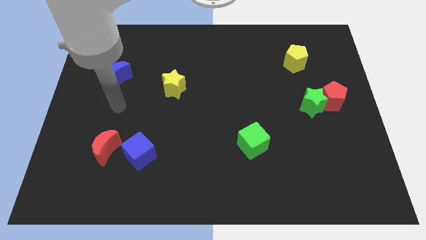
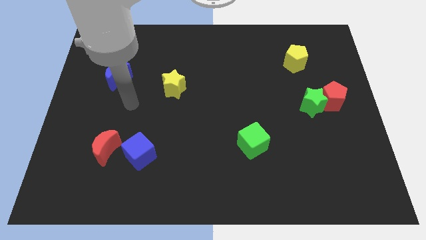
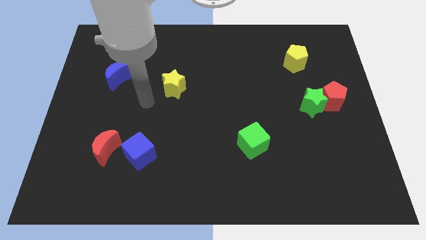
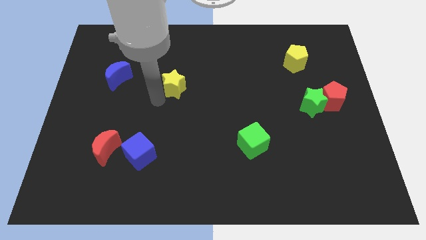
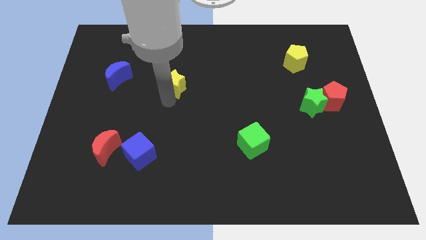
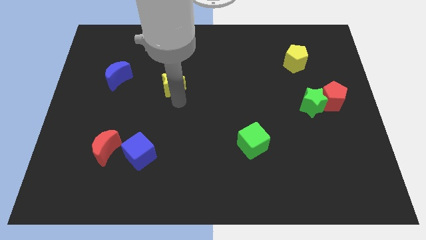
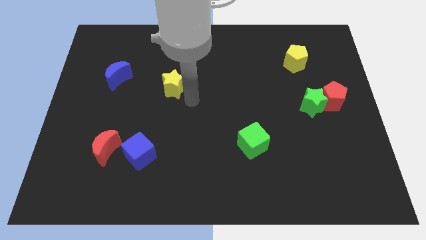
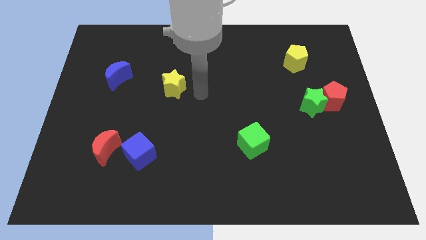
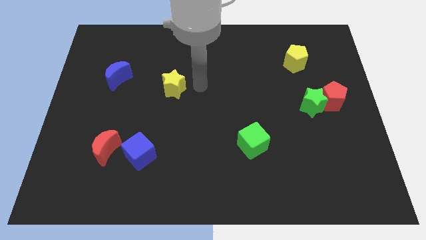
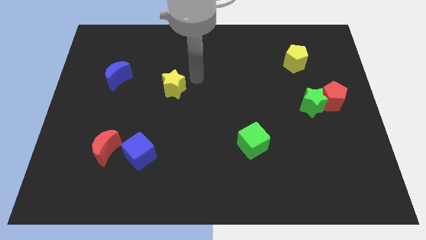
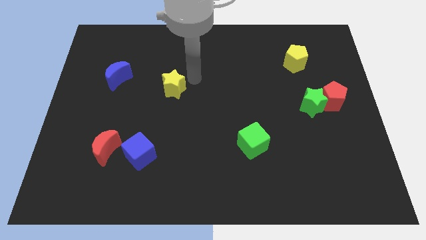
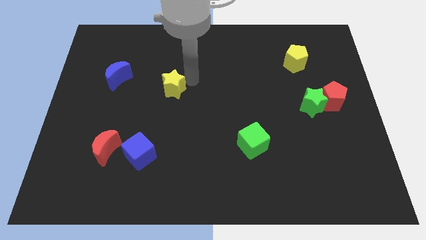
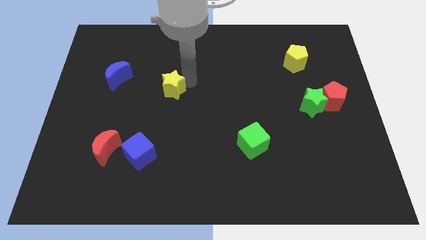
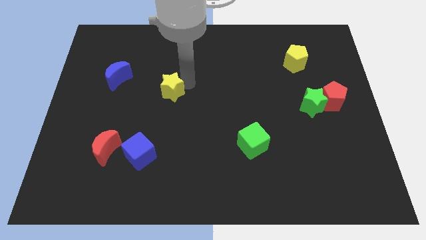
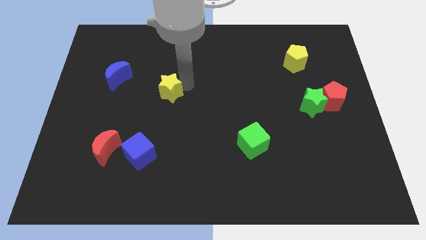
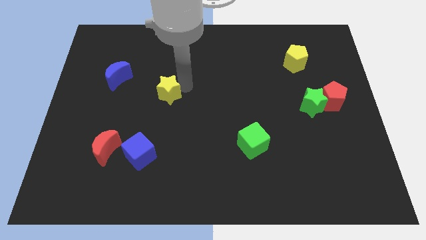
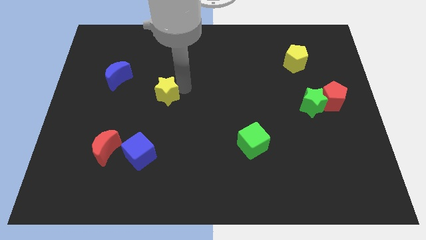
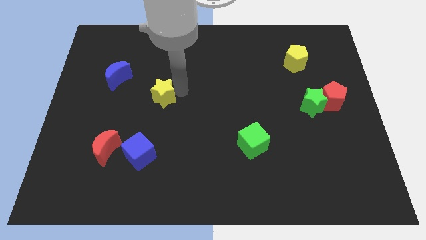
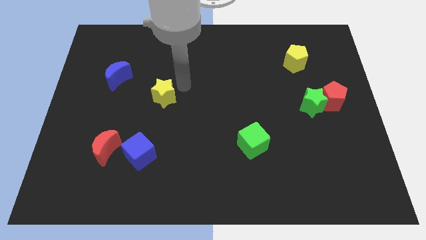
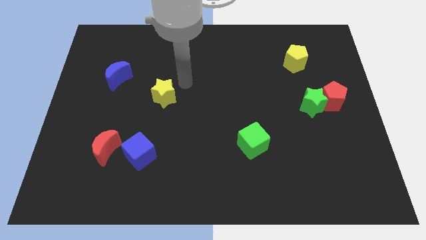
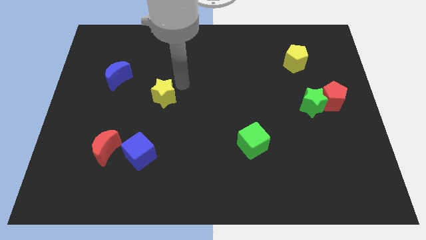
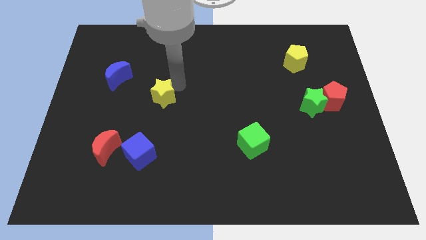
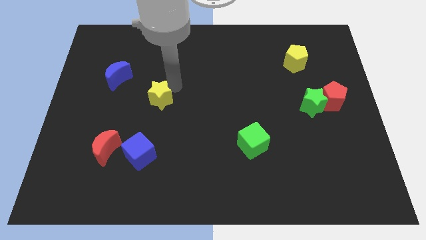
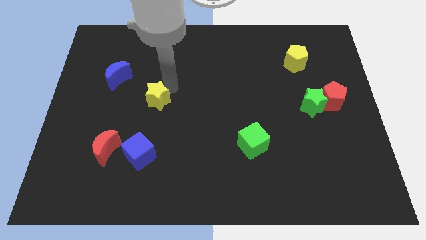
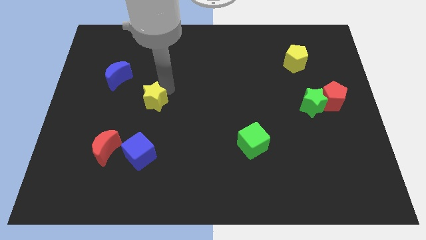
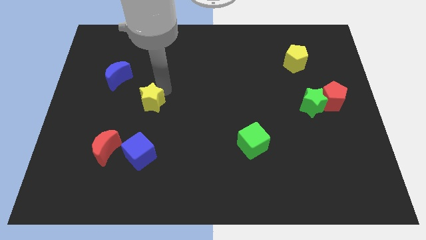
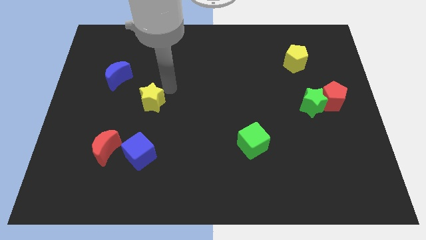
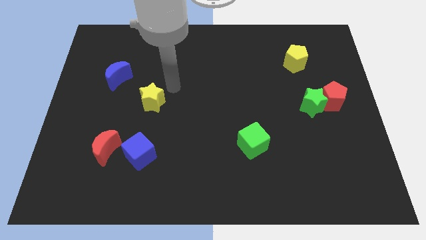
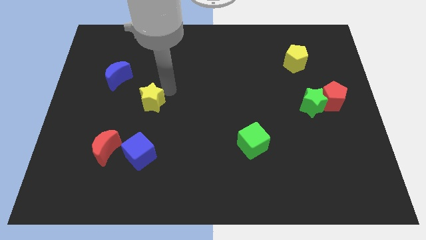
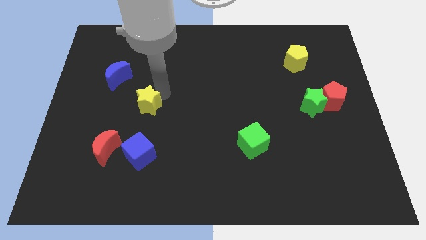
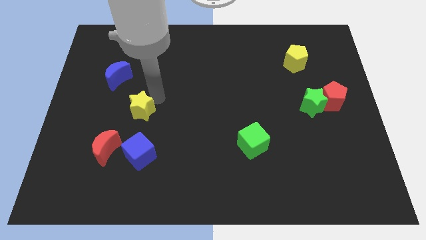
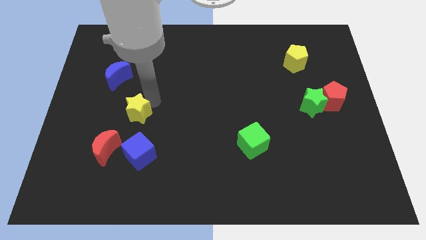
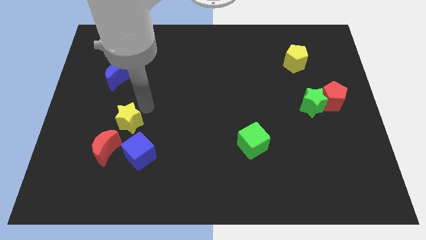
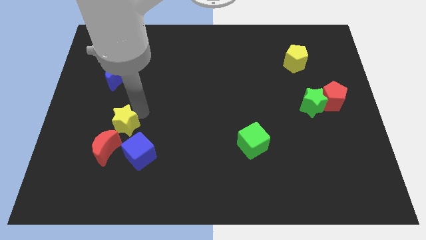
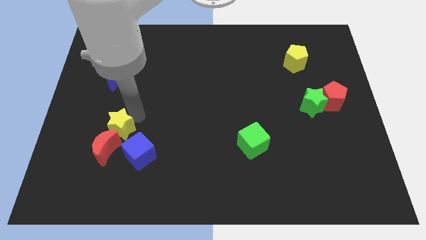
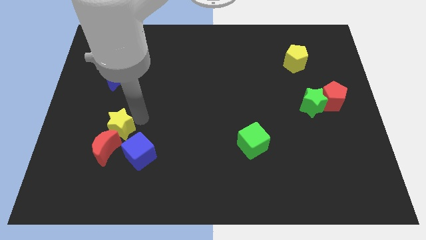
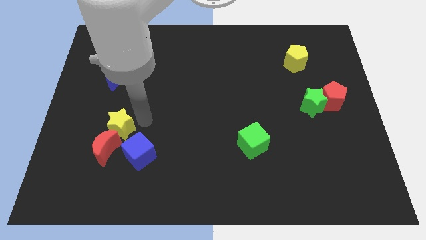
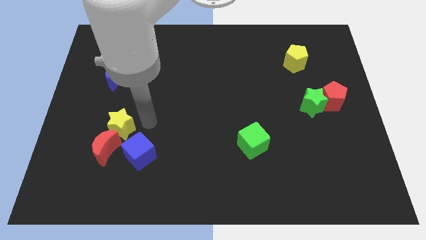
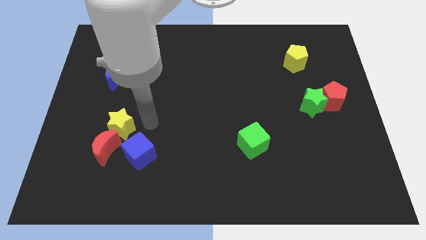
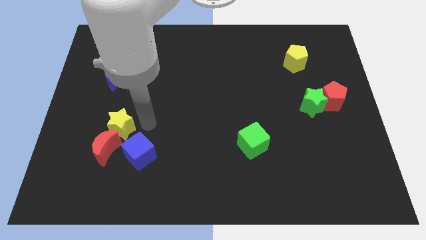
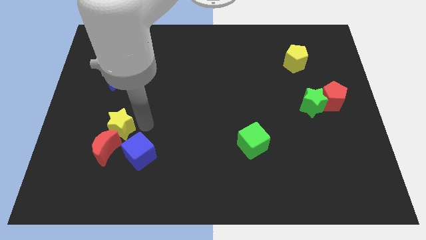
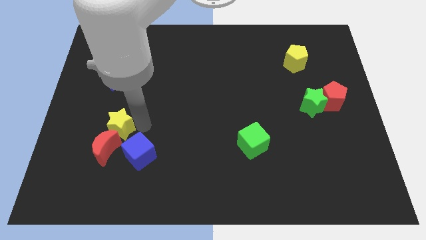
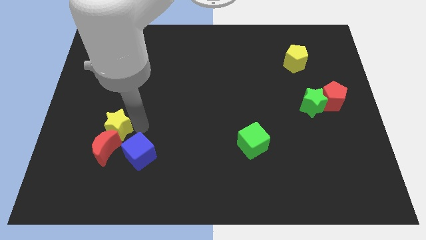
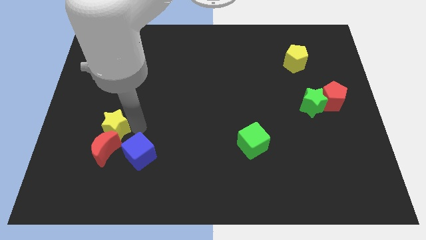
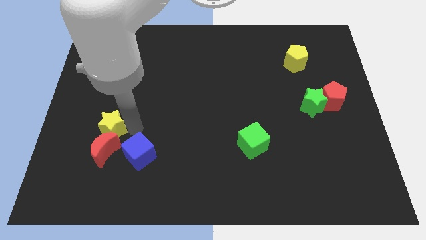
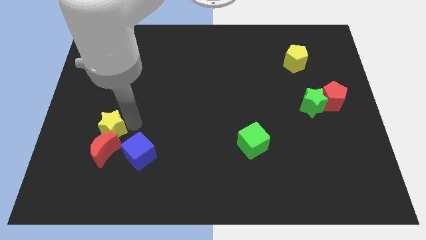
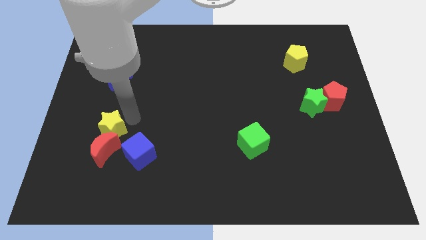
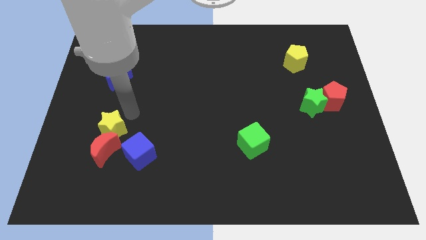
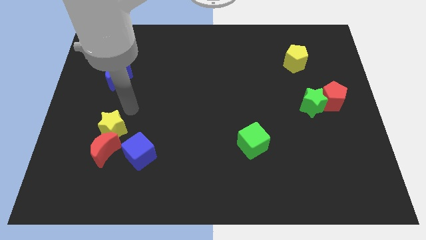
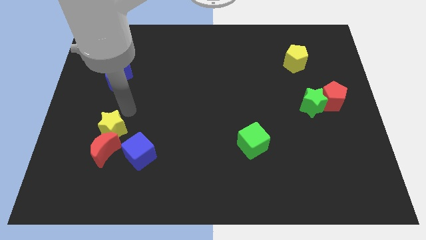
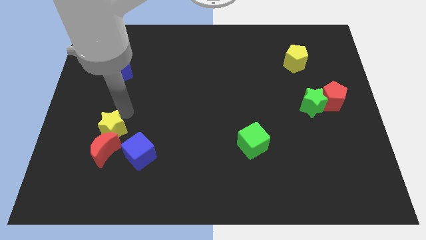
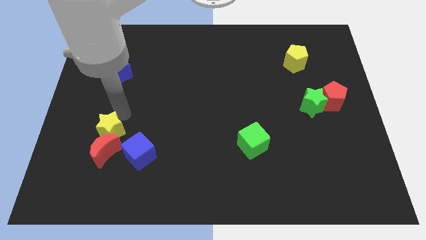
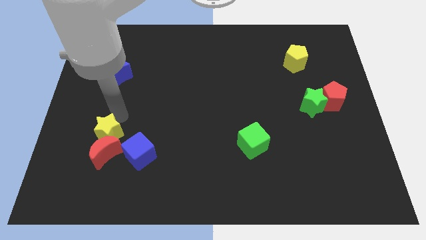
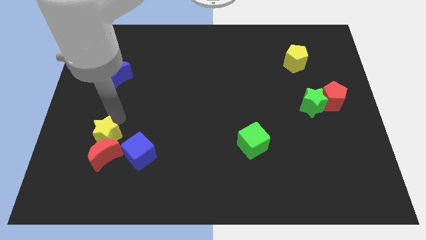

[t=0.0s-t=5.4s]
put the yellow star to the left side of the blue cube

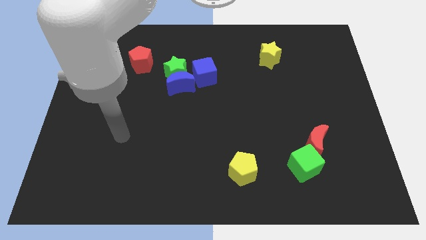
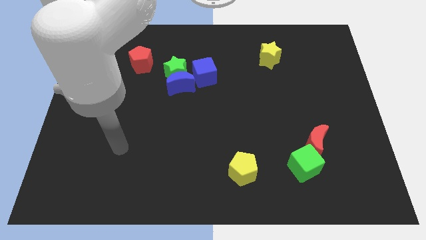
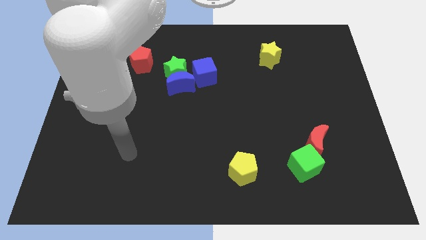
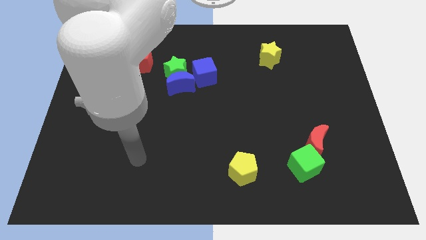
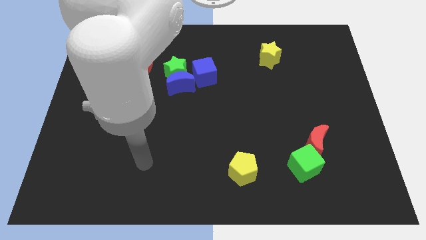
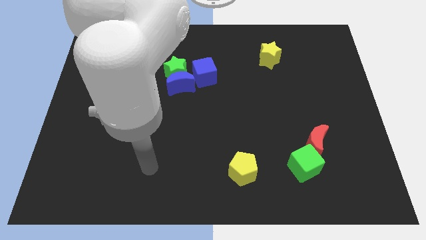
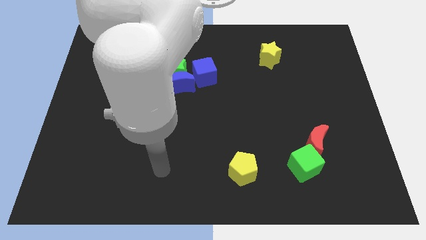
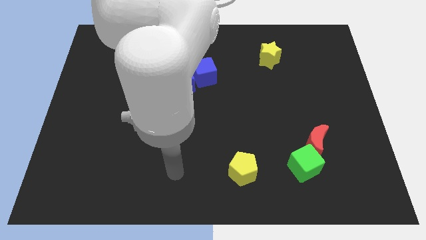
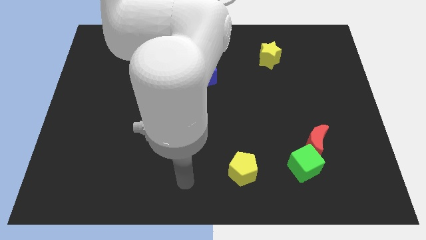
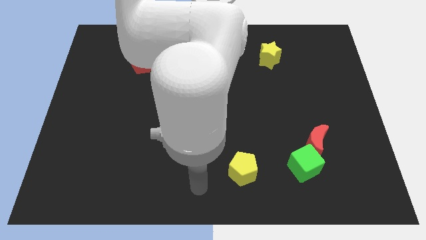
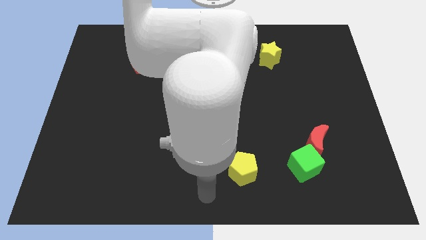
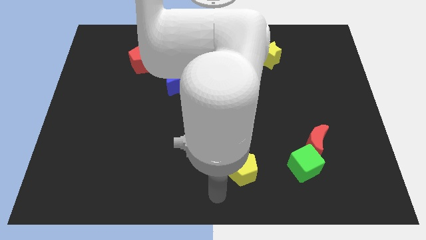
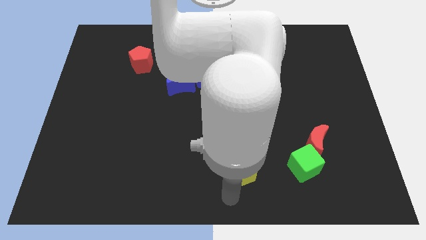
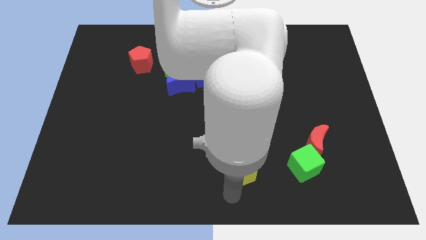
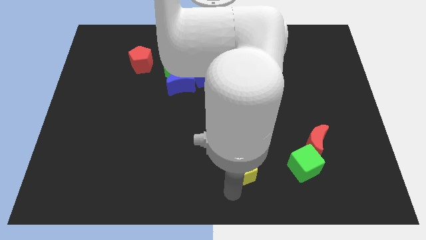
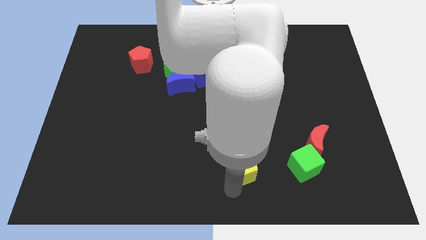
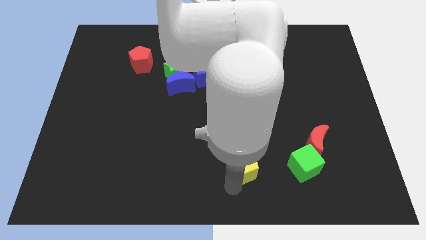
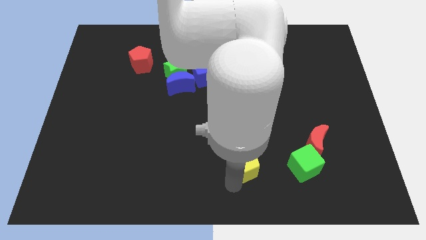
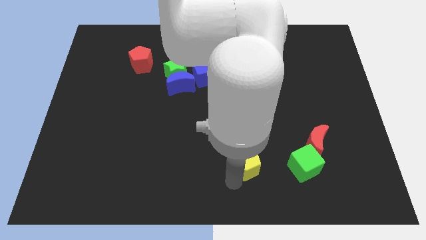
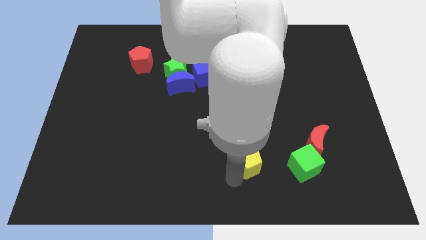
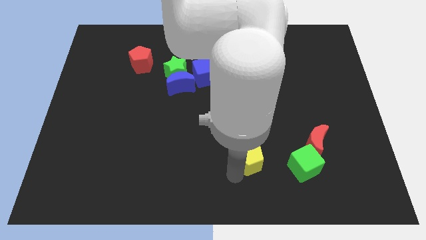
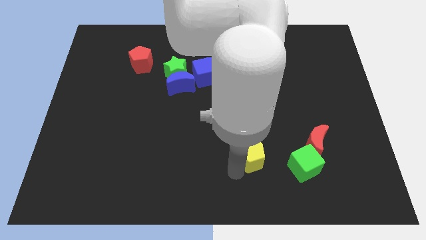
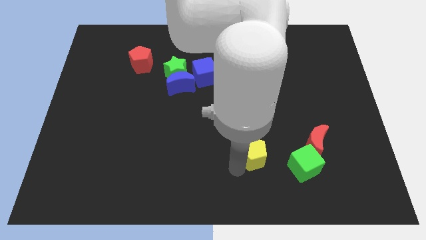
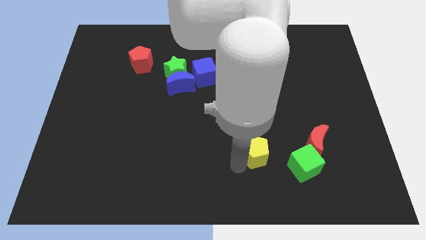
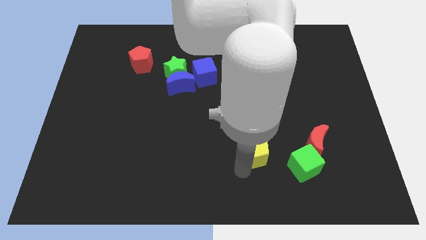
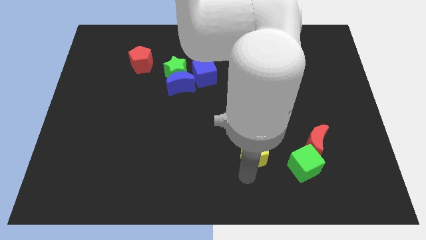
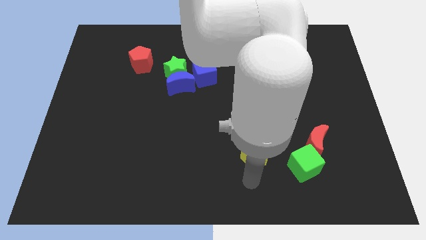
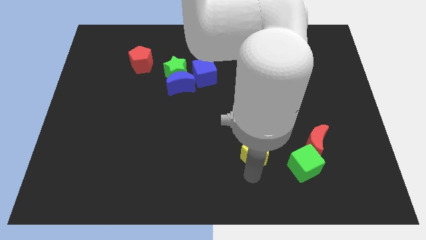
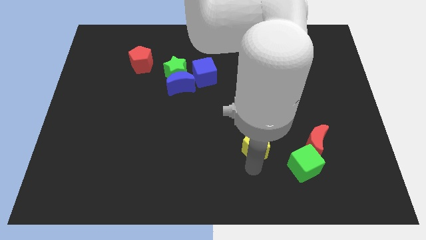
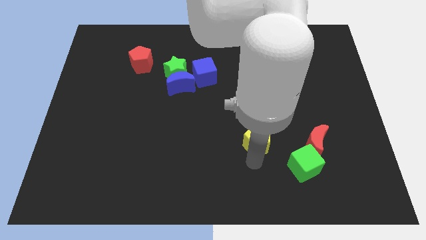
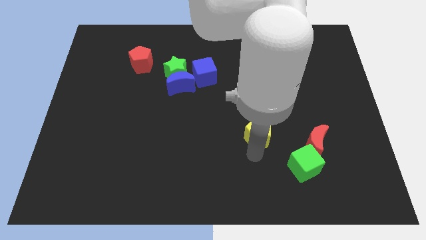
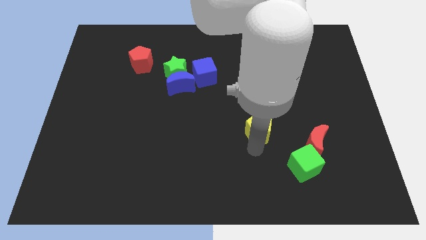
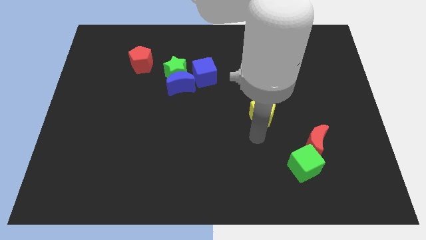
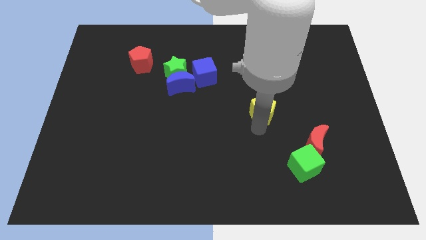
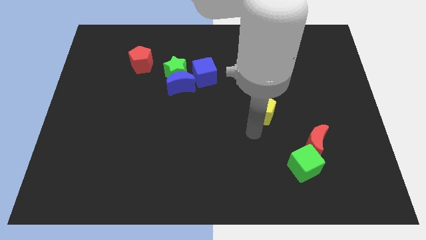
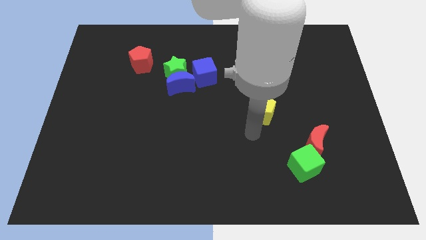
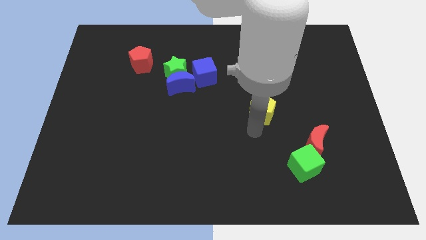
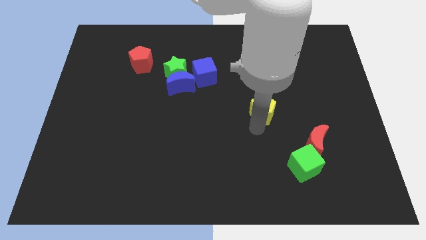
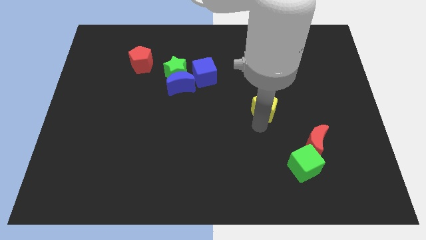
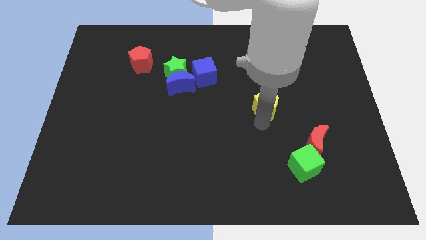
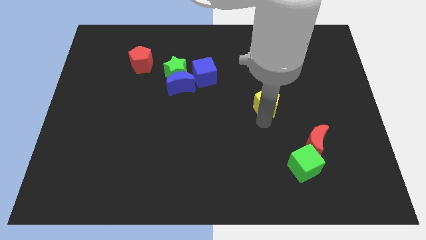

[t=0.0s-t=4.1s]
move the yellow pentagon below the yellow star
